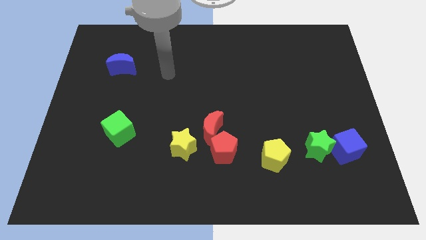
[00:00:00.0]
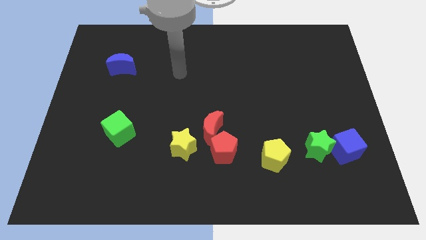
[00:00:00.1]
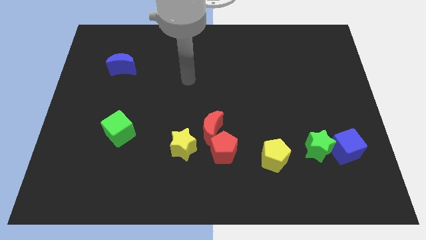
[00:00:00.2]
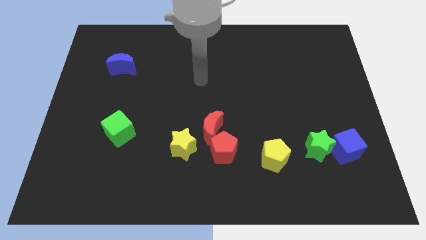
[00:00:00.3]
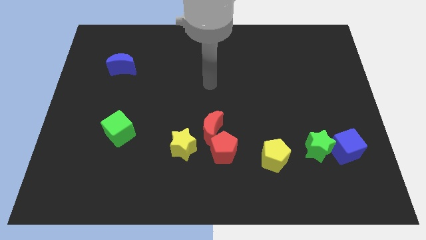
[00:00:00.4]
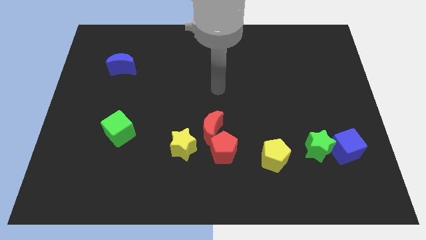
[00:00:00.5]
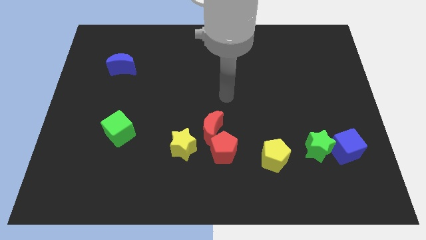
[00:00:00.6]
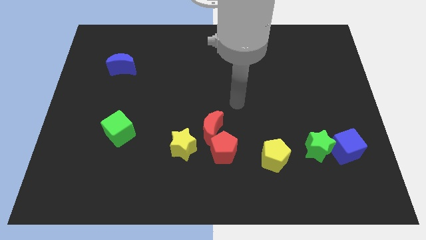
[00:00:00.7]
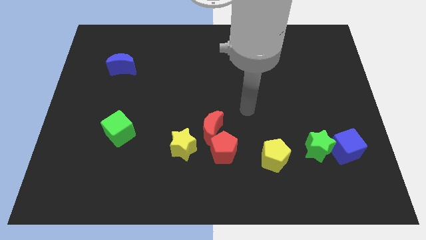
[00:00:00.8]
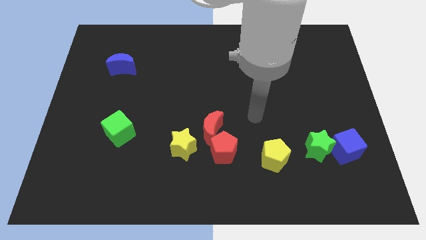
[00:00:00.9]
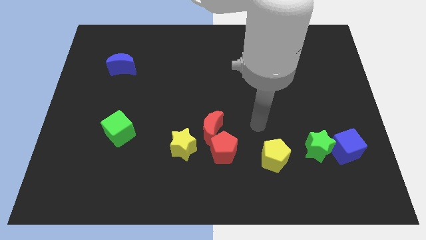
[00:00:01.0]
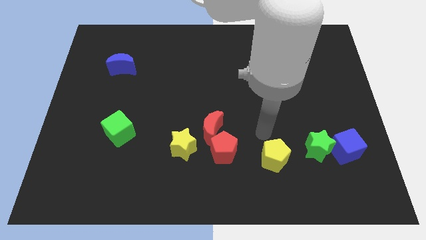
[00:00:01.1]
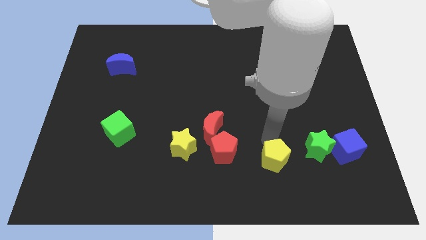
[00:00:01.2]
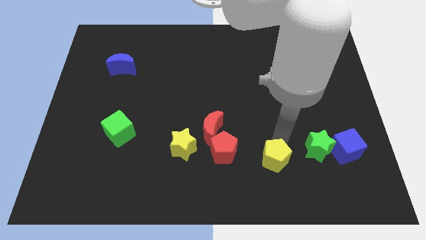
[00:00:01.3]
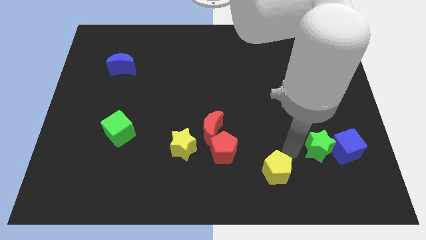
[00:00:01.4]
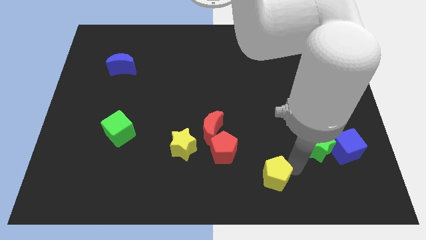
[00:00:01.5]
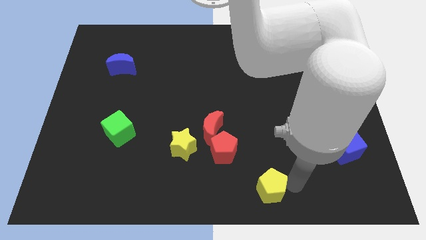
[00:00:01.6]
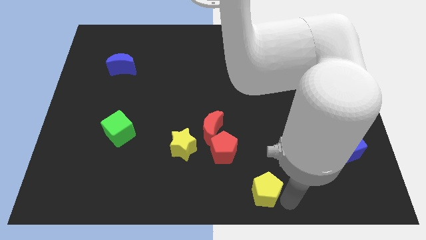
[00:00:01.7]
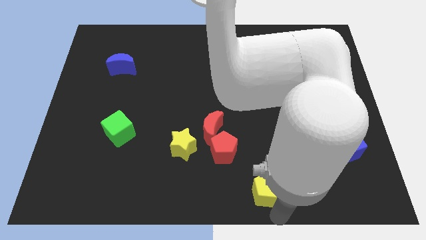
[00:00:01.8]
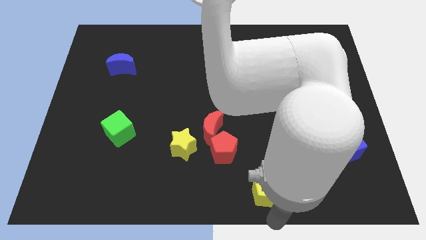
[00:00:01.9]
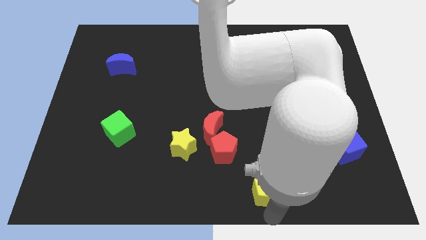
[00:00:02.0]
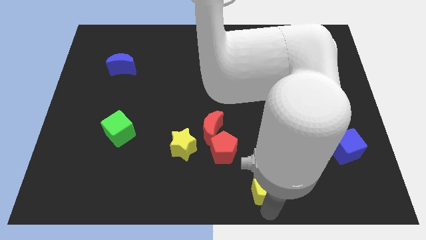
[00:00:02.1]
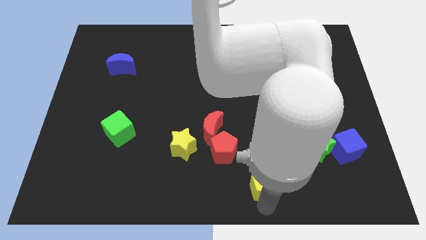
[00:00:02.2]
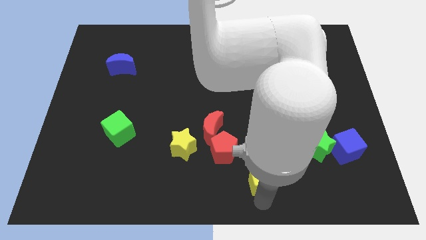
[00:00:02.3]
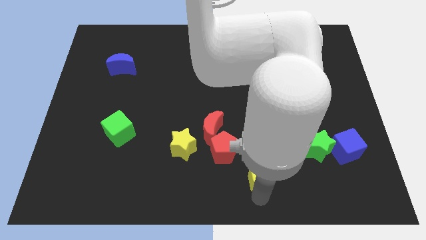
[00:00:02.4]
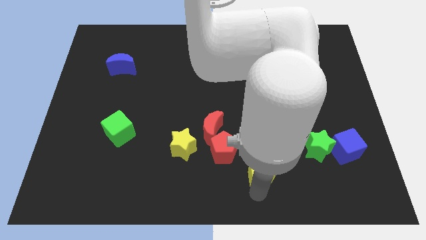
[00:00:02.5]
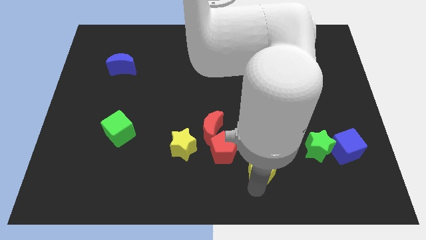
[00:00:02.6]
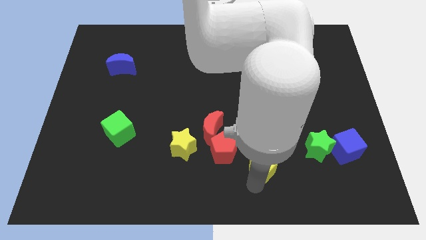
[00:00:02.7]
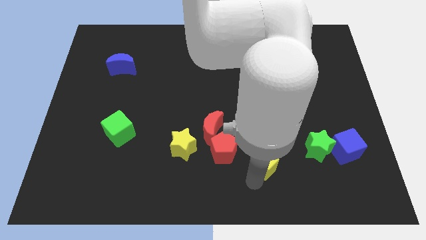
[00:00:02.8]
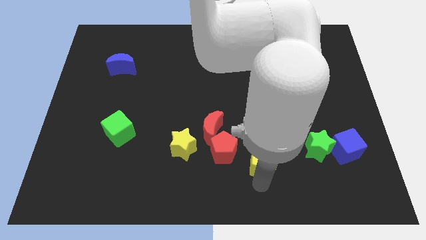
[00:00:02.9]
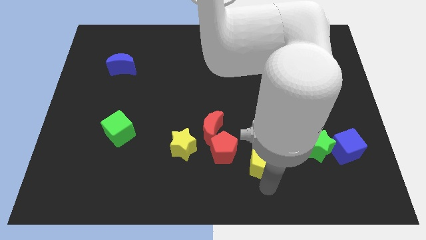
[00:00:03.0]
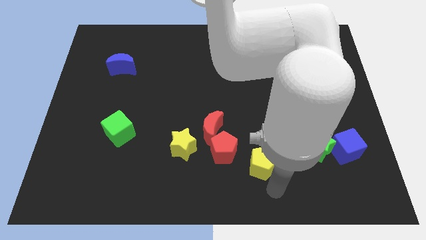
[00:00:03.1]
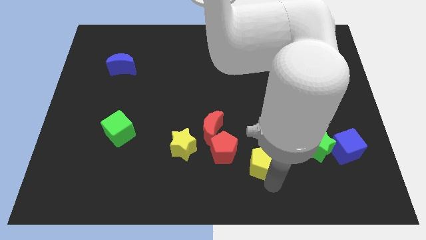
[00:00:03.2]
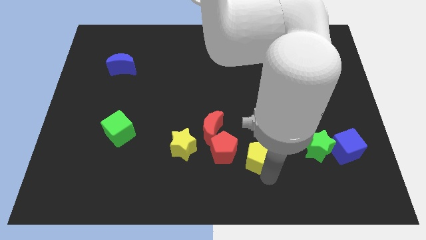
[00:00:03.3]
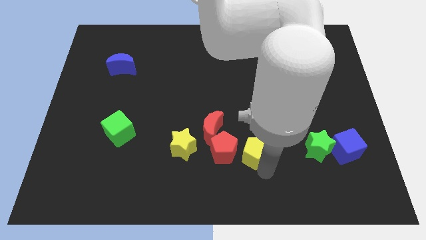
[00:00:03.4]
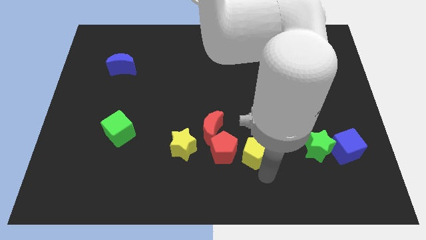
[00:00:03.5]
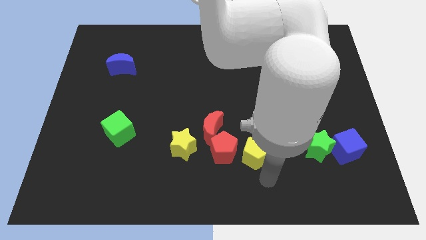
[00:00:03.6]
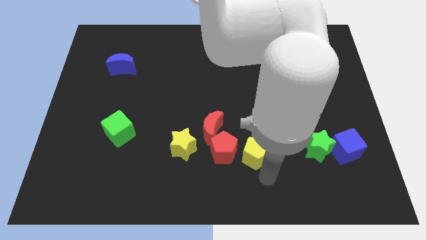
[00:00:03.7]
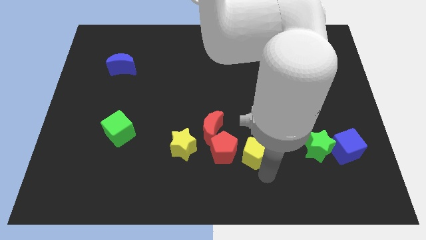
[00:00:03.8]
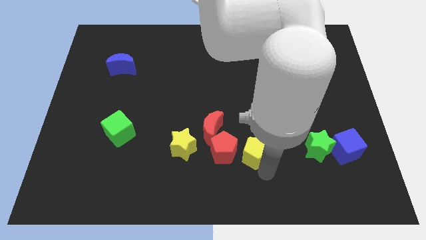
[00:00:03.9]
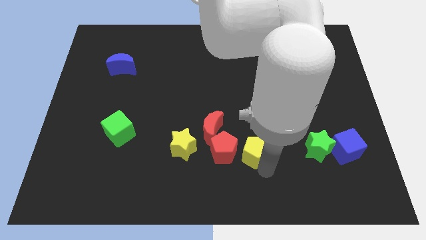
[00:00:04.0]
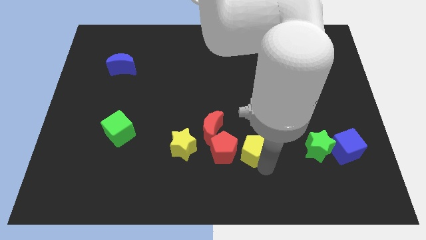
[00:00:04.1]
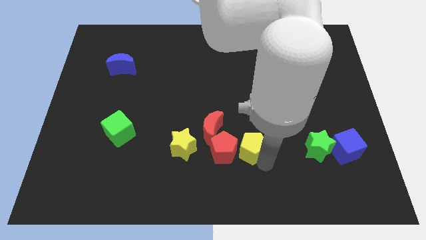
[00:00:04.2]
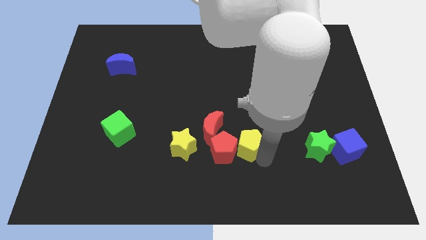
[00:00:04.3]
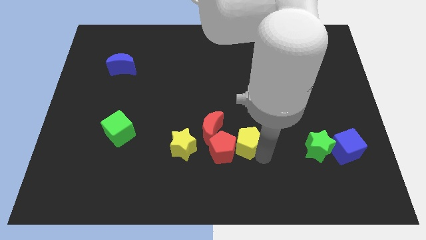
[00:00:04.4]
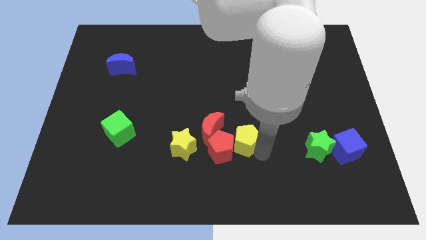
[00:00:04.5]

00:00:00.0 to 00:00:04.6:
push the yellow pentagon upwards and to the left a bit

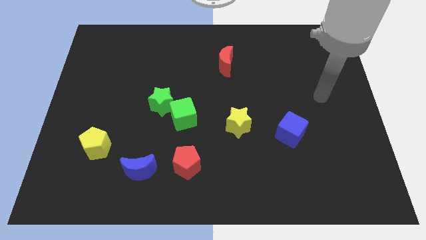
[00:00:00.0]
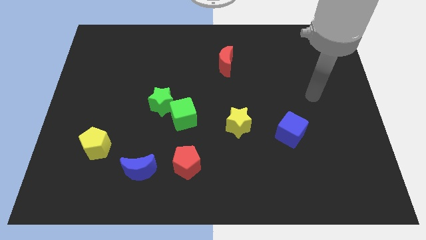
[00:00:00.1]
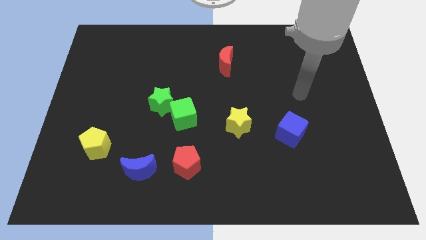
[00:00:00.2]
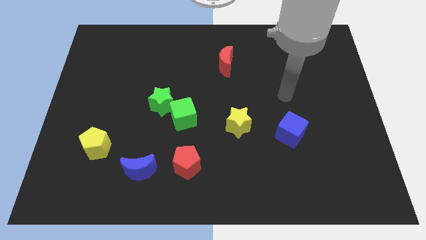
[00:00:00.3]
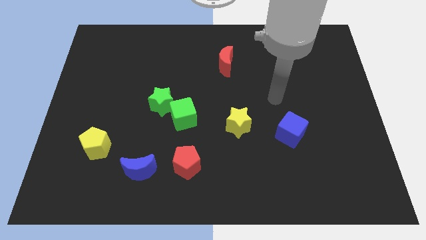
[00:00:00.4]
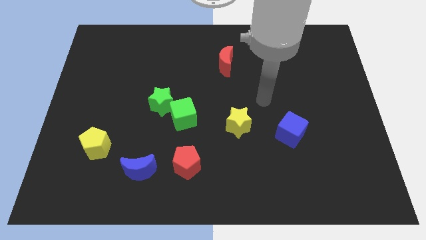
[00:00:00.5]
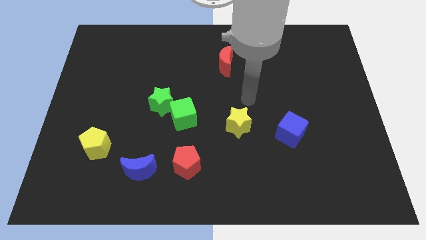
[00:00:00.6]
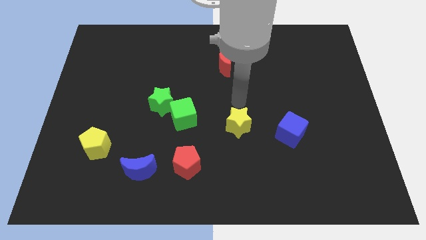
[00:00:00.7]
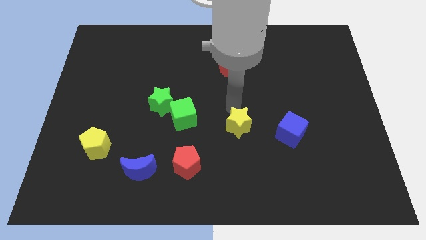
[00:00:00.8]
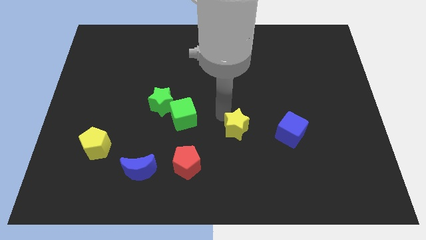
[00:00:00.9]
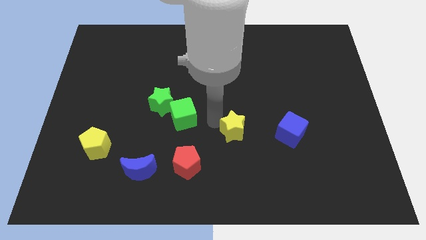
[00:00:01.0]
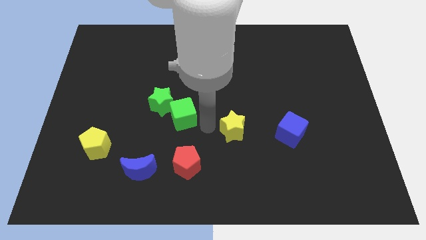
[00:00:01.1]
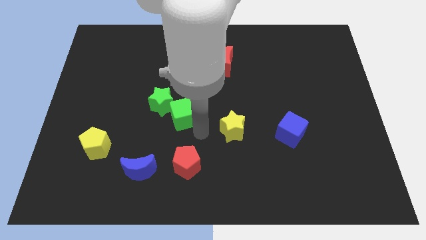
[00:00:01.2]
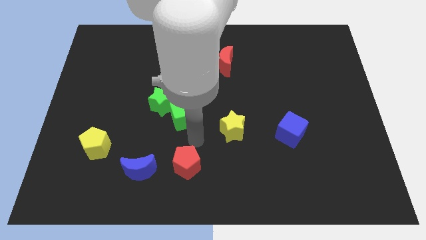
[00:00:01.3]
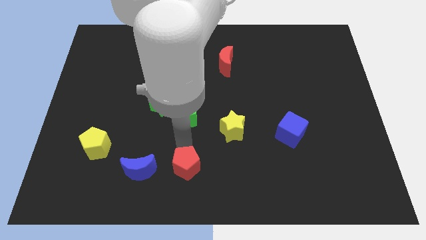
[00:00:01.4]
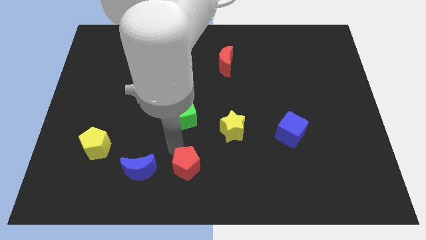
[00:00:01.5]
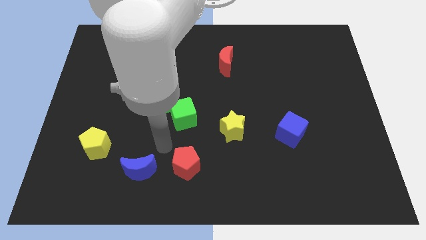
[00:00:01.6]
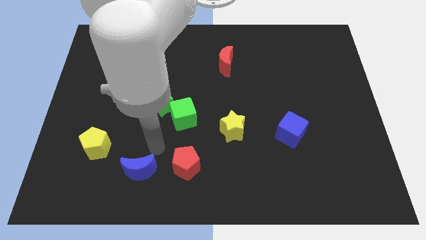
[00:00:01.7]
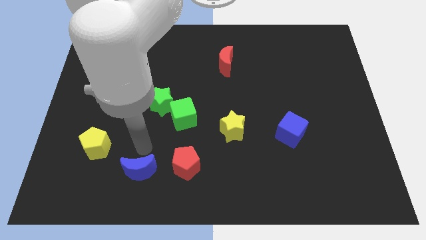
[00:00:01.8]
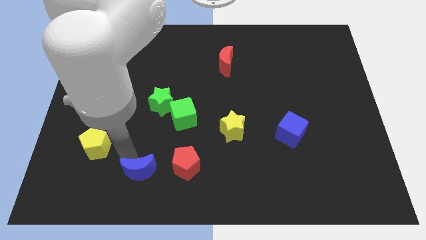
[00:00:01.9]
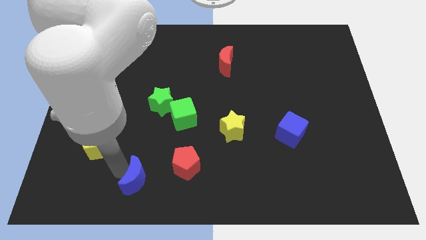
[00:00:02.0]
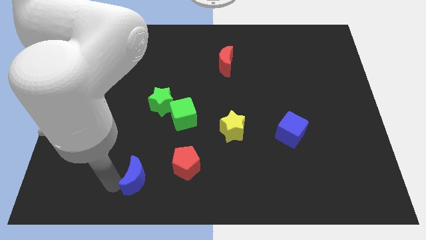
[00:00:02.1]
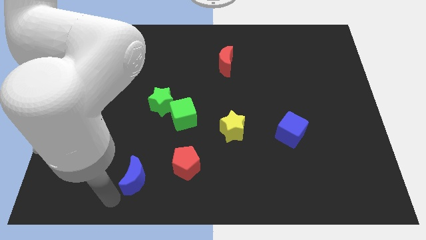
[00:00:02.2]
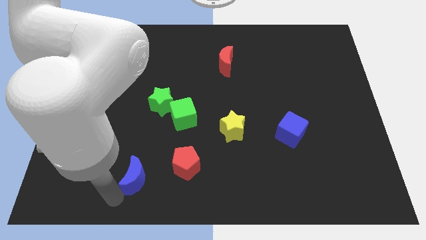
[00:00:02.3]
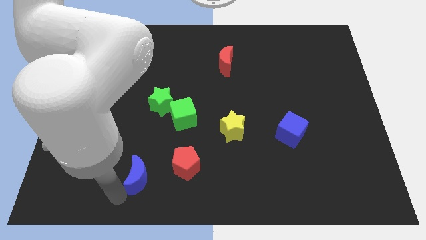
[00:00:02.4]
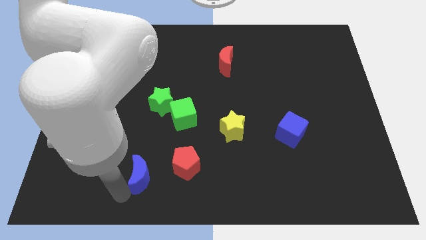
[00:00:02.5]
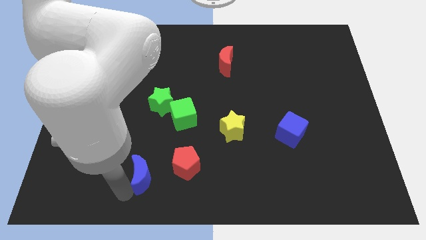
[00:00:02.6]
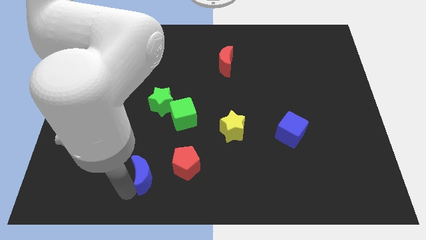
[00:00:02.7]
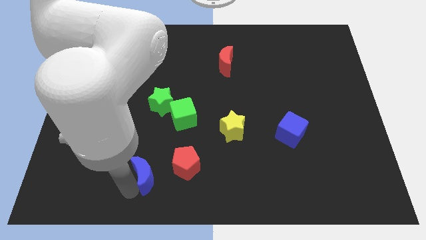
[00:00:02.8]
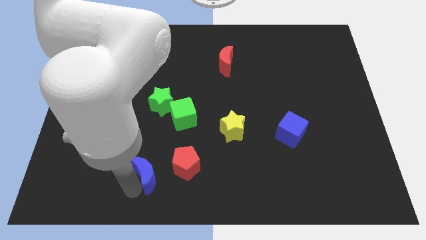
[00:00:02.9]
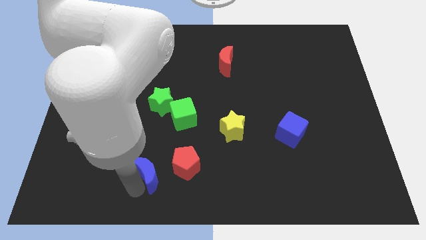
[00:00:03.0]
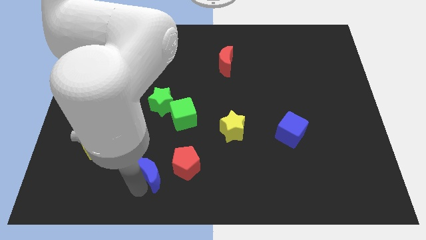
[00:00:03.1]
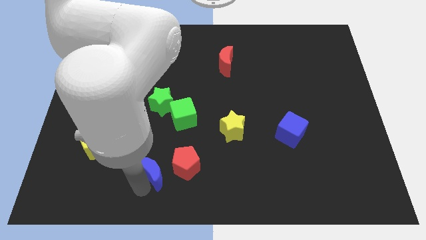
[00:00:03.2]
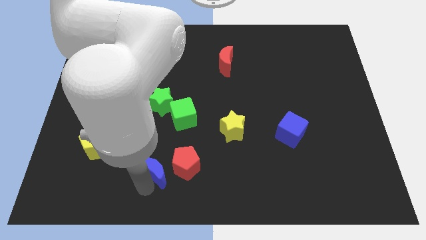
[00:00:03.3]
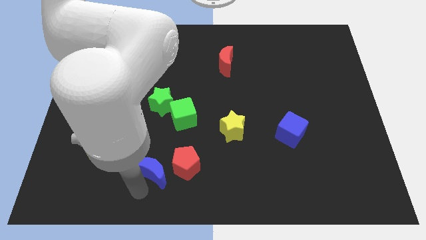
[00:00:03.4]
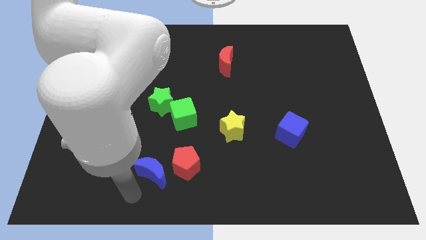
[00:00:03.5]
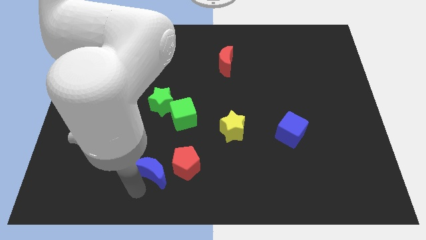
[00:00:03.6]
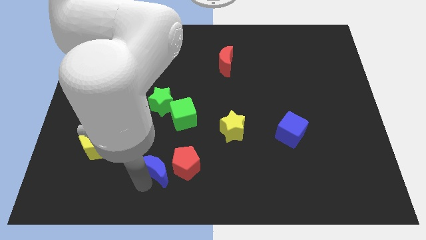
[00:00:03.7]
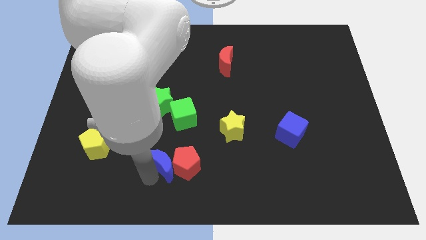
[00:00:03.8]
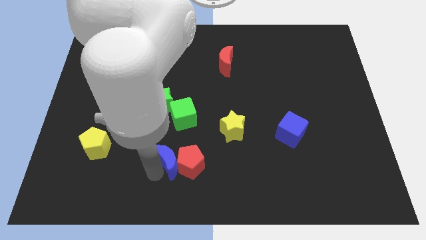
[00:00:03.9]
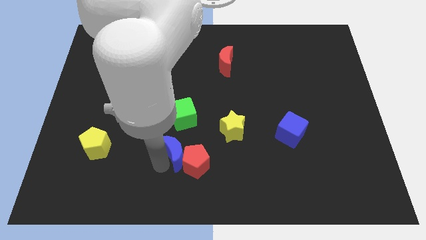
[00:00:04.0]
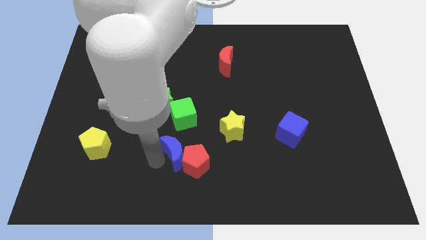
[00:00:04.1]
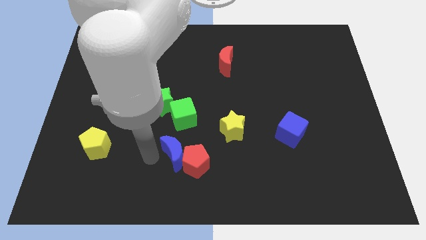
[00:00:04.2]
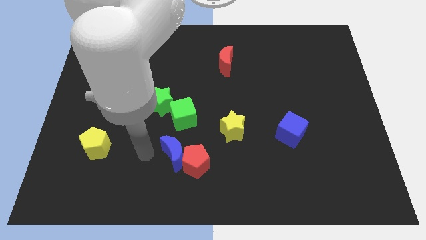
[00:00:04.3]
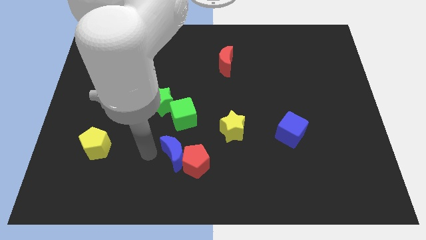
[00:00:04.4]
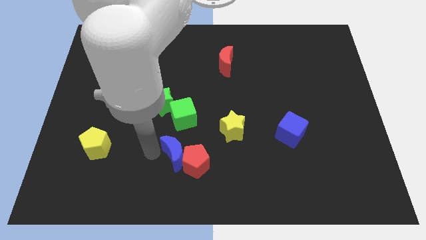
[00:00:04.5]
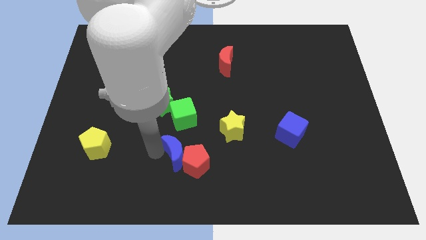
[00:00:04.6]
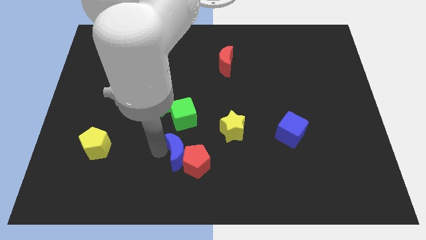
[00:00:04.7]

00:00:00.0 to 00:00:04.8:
move the blue moon slightly to the right
